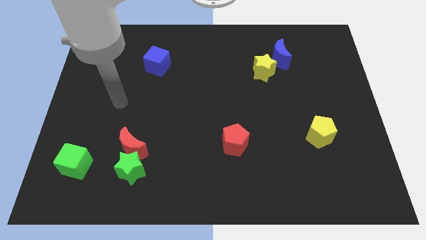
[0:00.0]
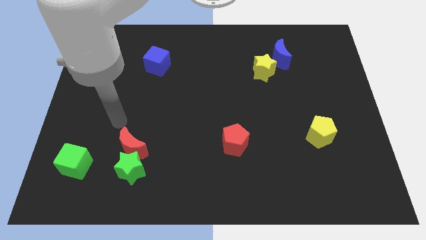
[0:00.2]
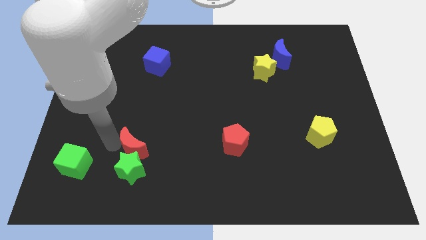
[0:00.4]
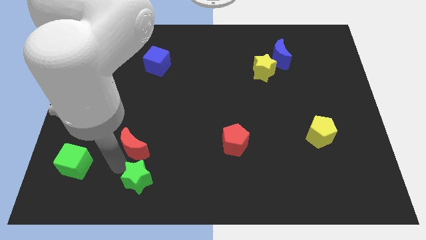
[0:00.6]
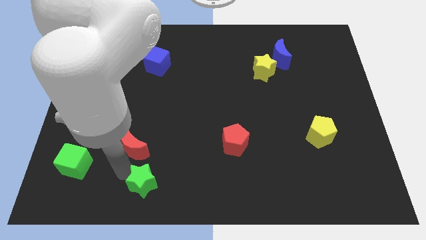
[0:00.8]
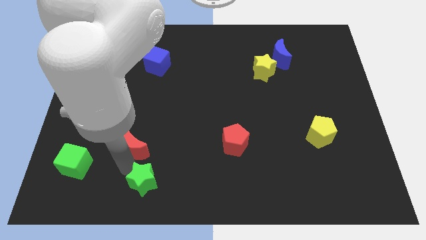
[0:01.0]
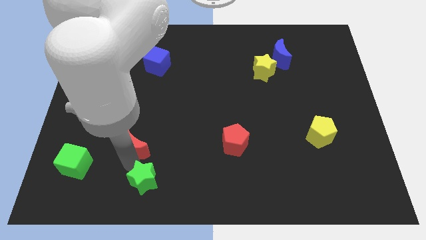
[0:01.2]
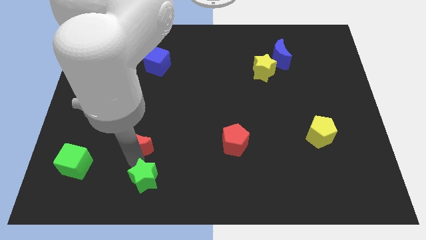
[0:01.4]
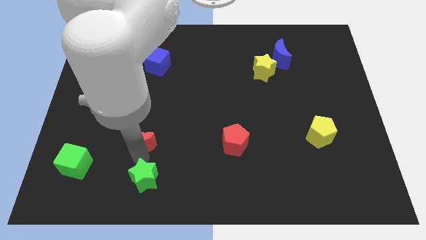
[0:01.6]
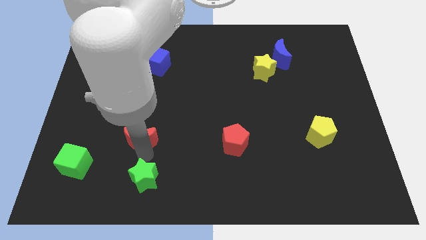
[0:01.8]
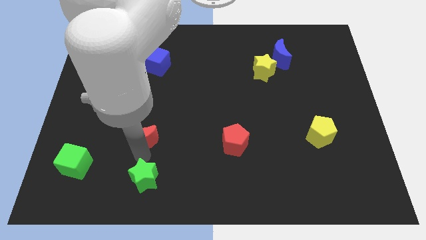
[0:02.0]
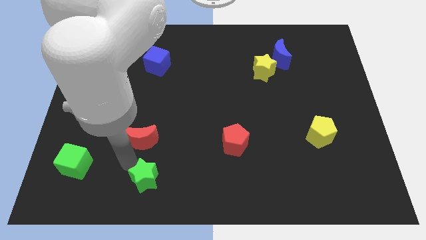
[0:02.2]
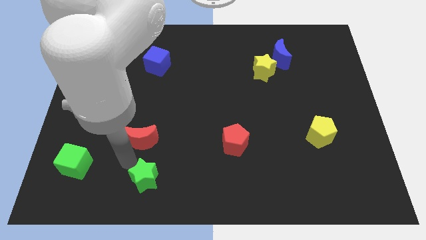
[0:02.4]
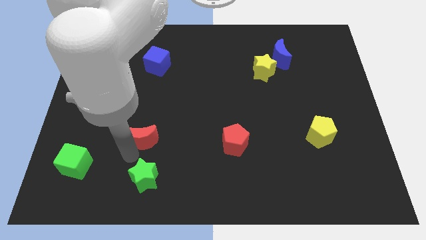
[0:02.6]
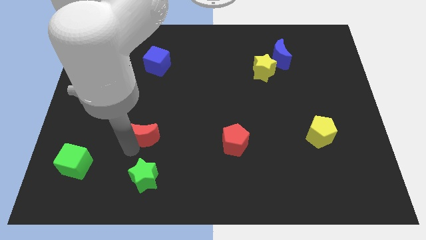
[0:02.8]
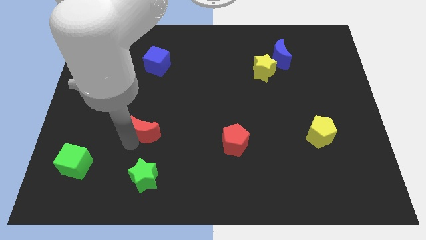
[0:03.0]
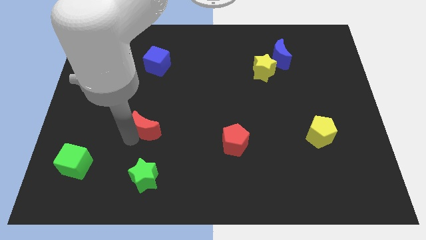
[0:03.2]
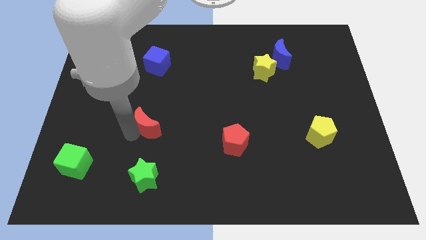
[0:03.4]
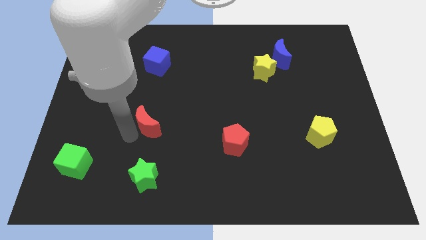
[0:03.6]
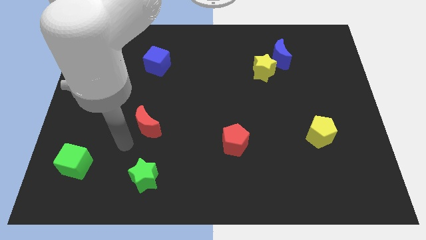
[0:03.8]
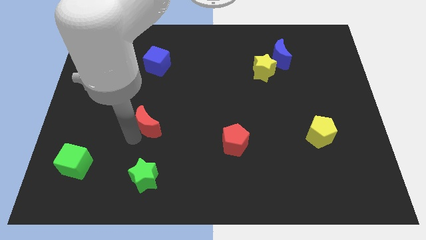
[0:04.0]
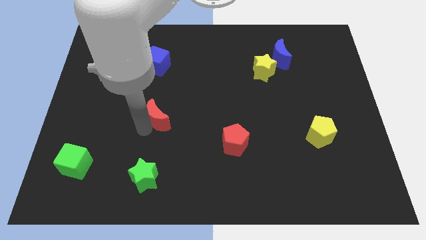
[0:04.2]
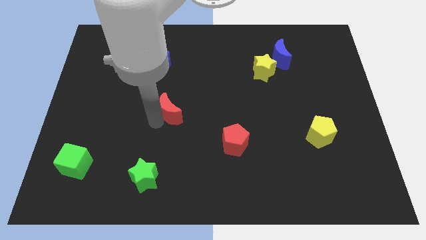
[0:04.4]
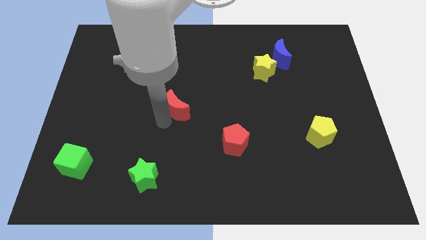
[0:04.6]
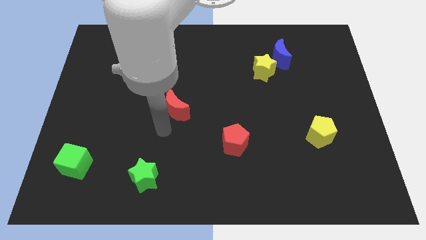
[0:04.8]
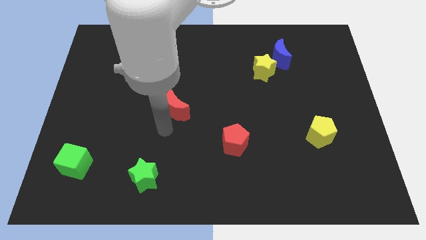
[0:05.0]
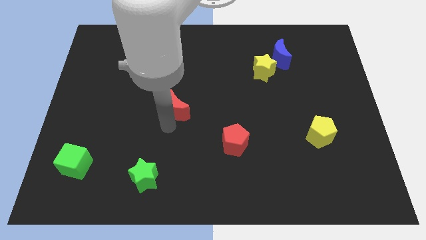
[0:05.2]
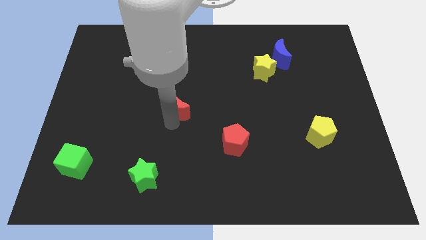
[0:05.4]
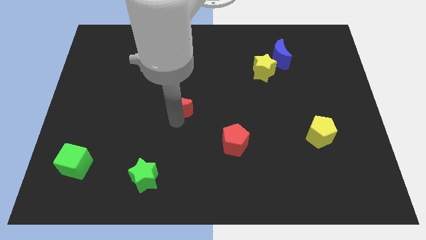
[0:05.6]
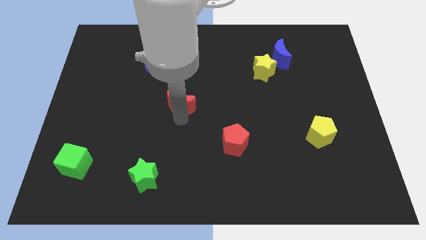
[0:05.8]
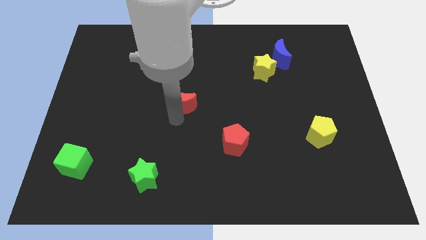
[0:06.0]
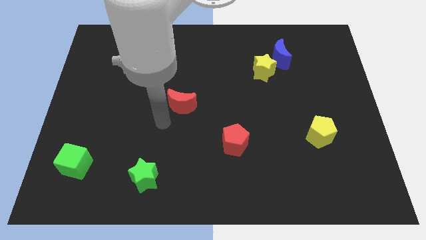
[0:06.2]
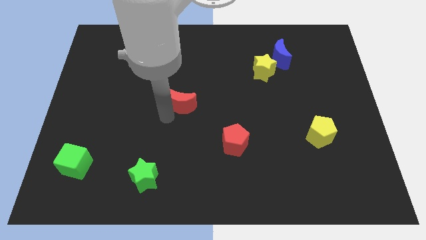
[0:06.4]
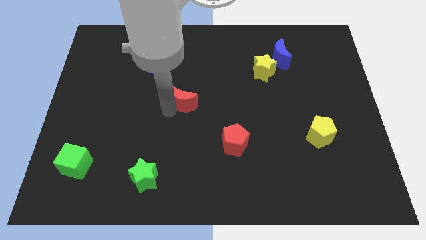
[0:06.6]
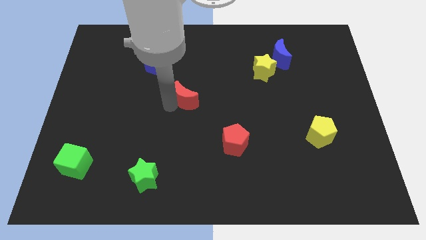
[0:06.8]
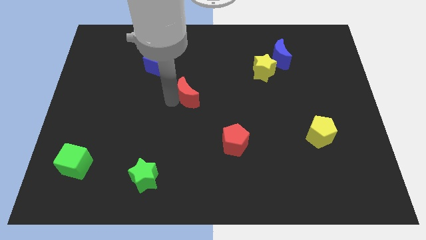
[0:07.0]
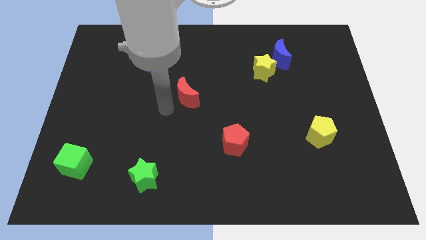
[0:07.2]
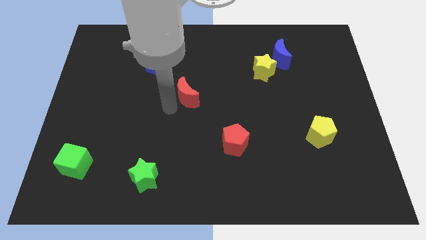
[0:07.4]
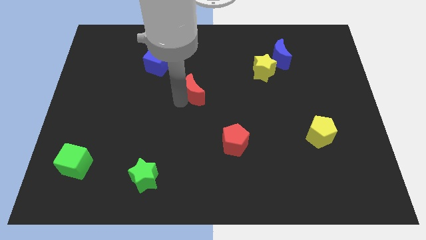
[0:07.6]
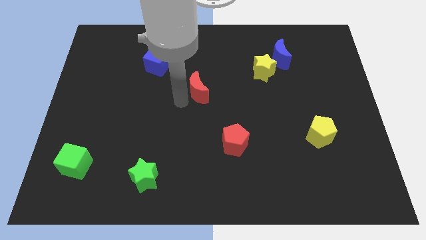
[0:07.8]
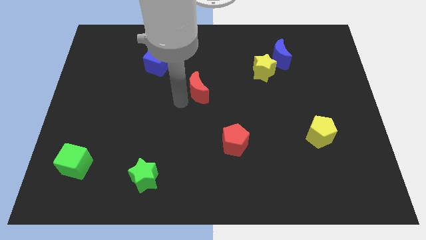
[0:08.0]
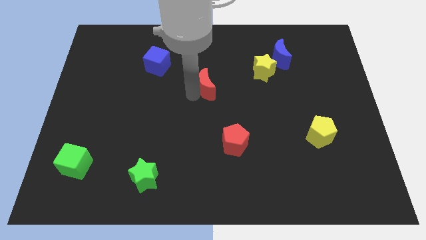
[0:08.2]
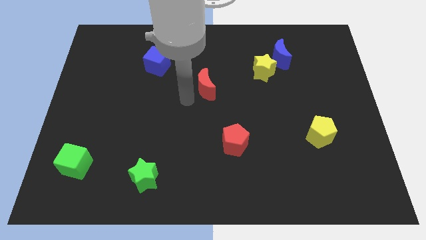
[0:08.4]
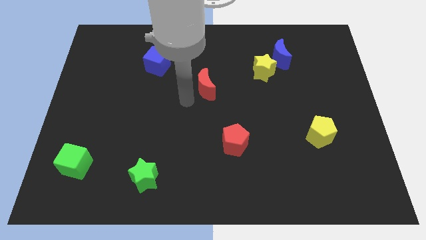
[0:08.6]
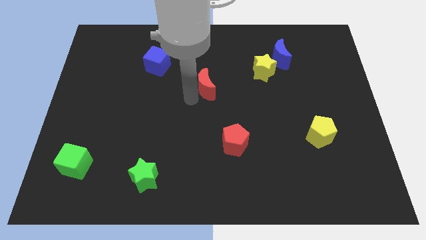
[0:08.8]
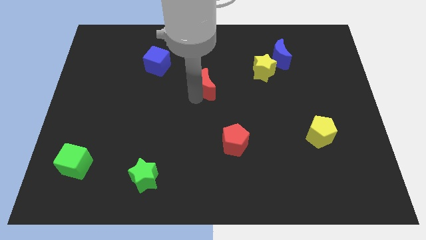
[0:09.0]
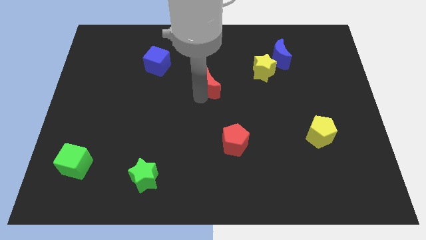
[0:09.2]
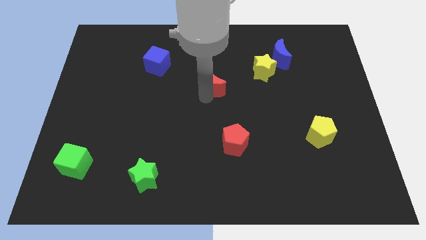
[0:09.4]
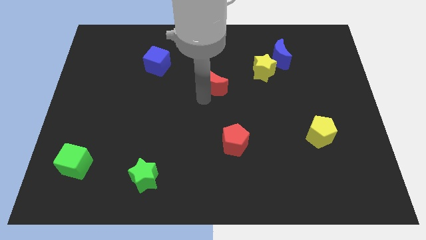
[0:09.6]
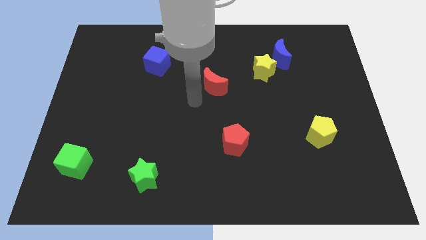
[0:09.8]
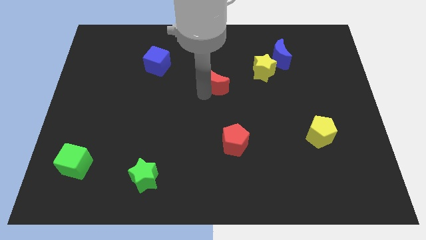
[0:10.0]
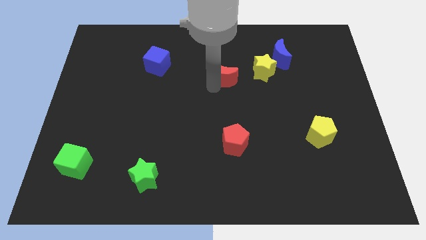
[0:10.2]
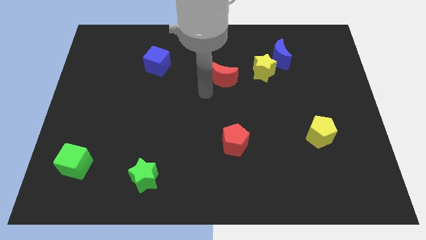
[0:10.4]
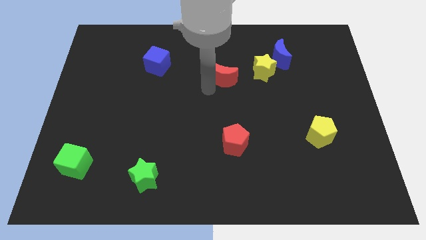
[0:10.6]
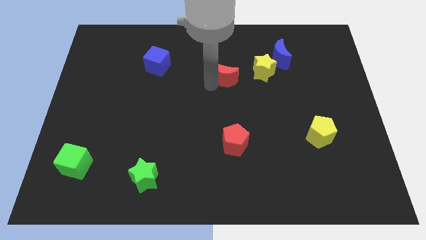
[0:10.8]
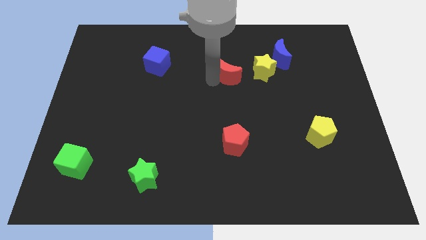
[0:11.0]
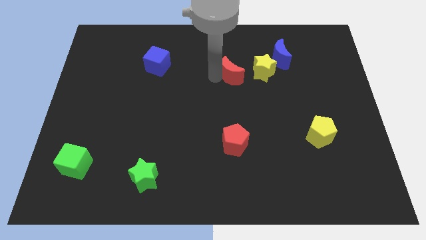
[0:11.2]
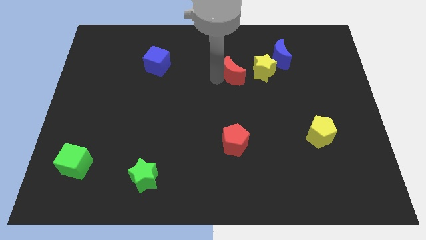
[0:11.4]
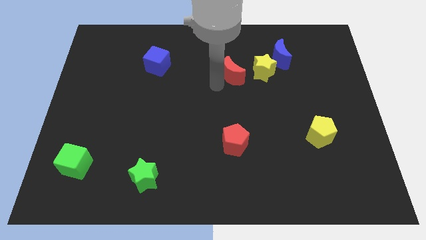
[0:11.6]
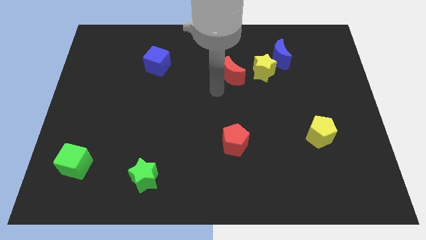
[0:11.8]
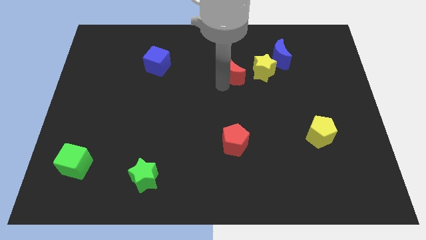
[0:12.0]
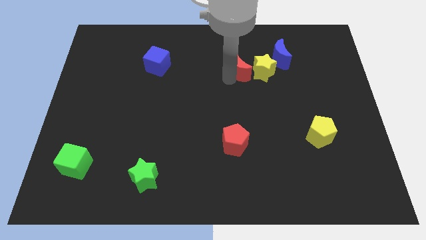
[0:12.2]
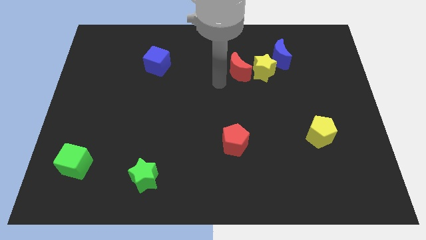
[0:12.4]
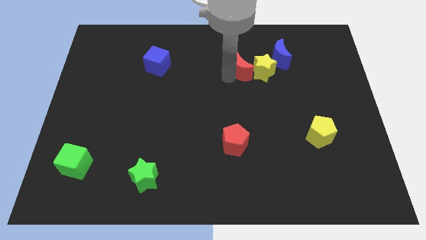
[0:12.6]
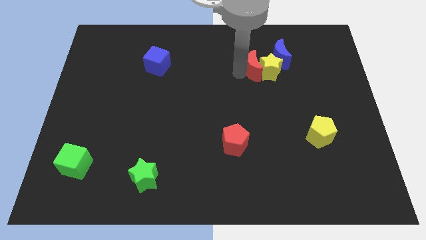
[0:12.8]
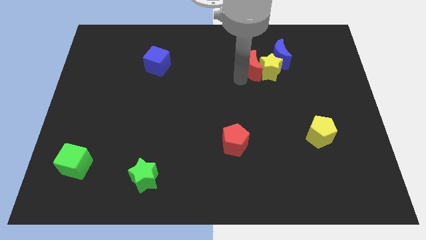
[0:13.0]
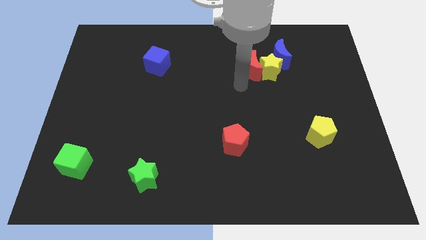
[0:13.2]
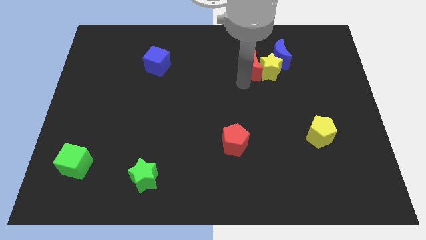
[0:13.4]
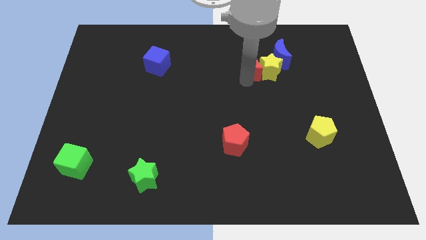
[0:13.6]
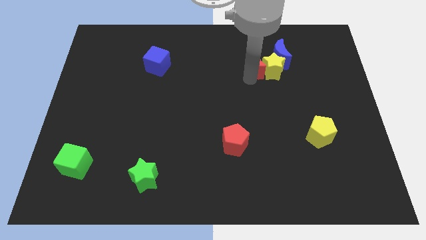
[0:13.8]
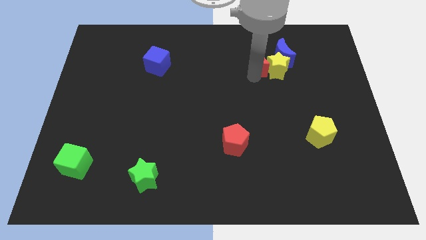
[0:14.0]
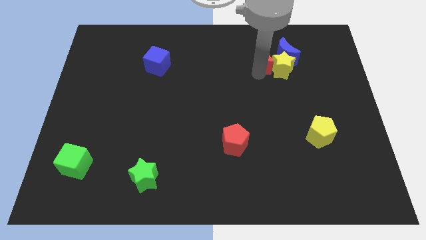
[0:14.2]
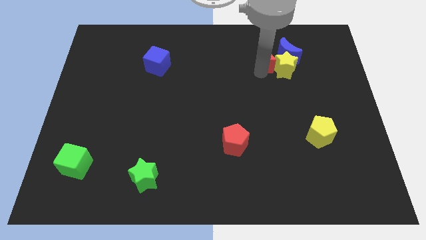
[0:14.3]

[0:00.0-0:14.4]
push the red moon to the blue moon
